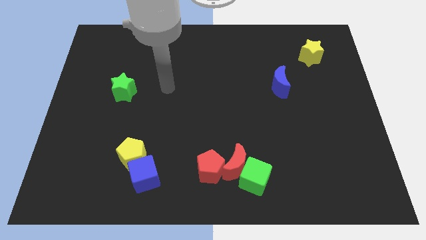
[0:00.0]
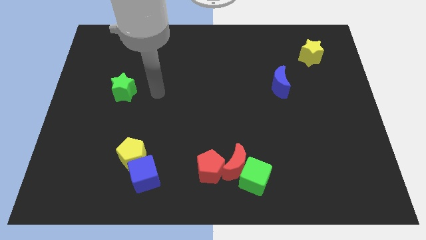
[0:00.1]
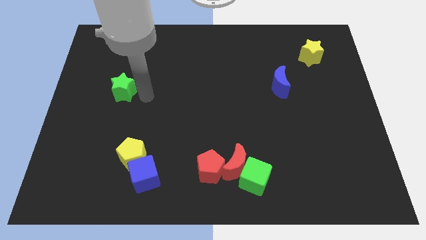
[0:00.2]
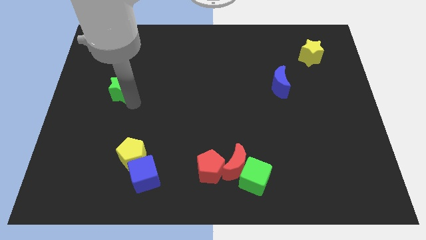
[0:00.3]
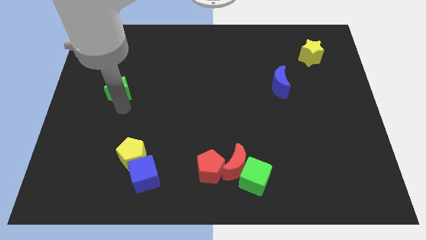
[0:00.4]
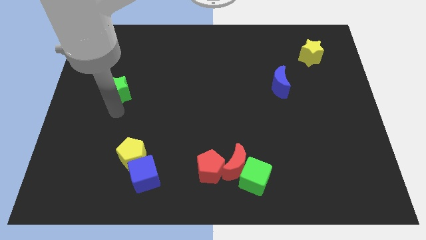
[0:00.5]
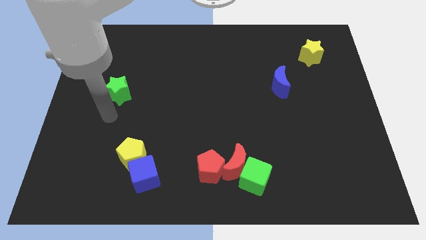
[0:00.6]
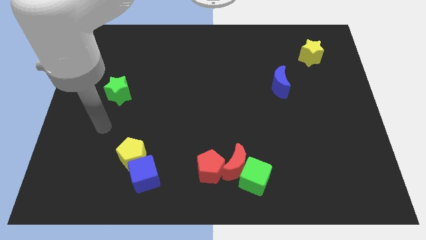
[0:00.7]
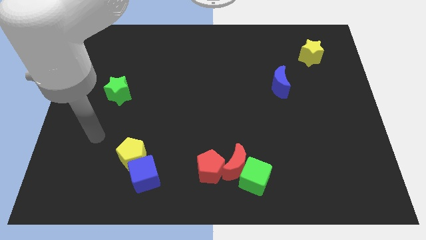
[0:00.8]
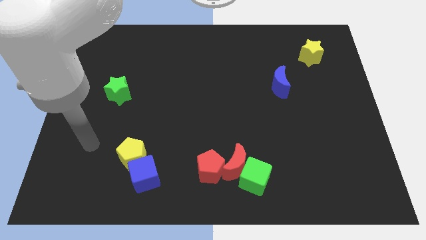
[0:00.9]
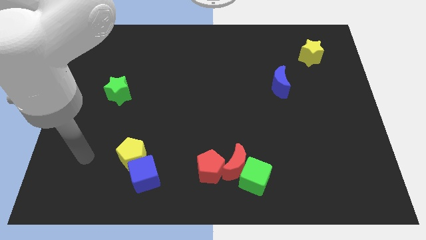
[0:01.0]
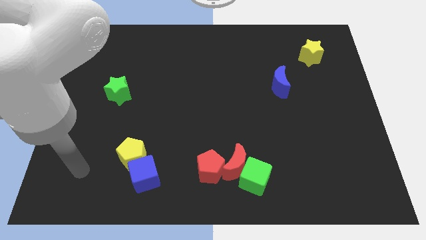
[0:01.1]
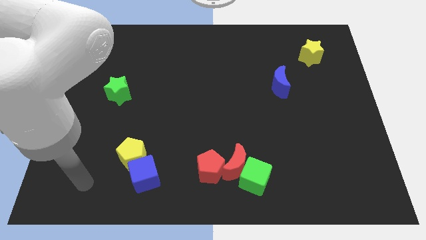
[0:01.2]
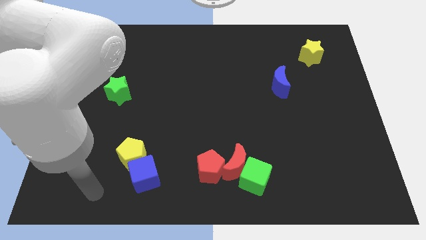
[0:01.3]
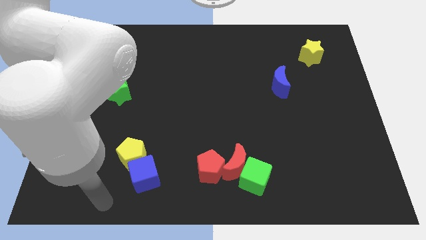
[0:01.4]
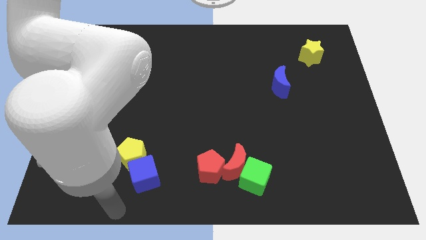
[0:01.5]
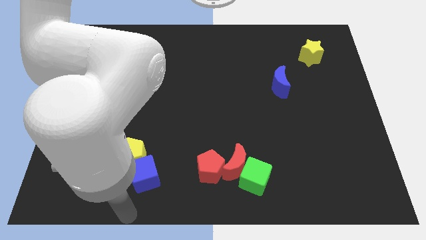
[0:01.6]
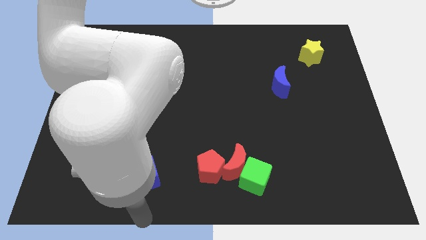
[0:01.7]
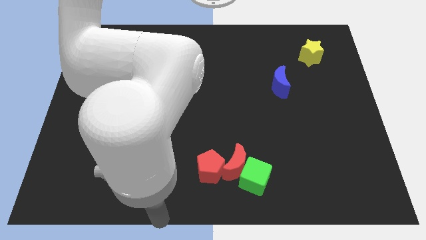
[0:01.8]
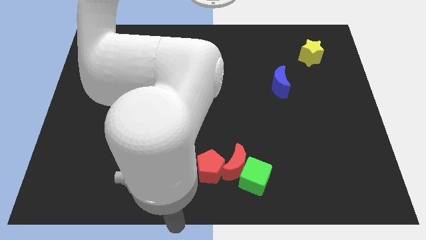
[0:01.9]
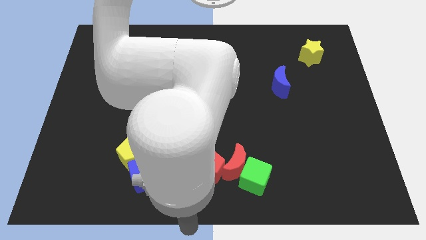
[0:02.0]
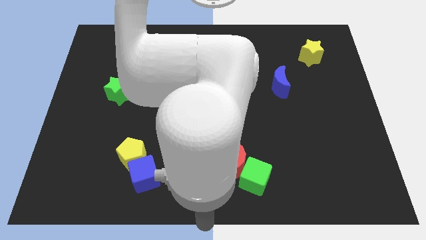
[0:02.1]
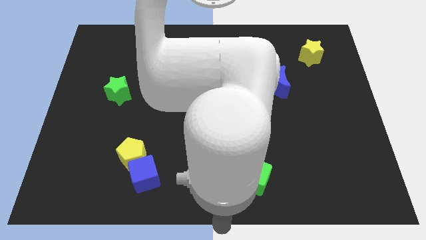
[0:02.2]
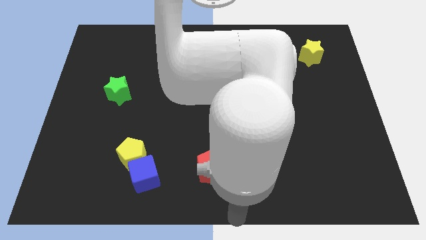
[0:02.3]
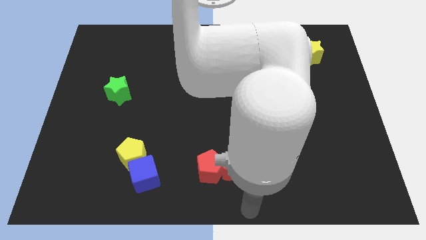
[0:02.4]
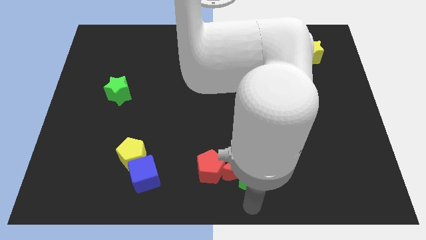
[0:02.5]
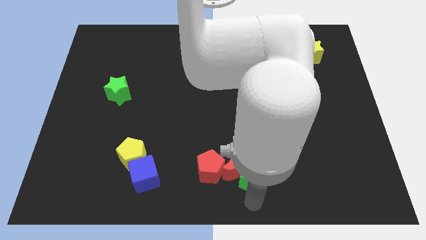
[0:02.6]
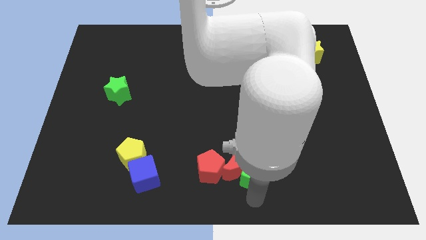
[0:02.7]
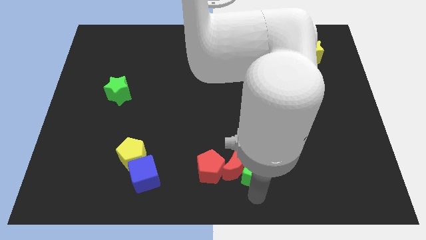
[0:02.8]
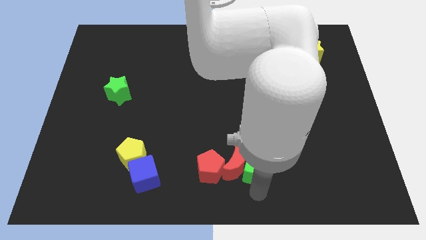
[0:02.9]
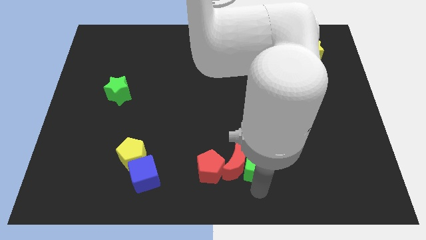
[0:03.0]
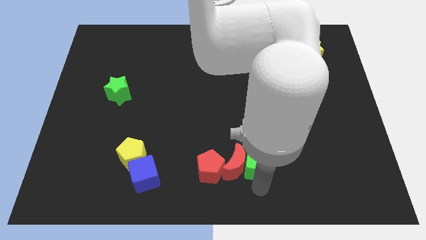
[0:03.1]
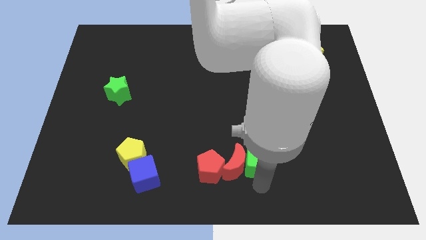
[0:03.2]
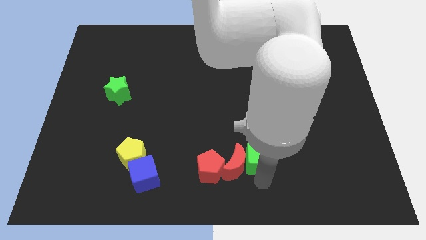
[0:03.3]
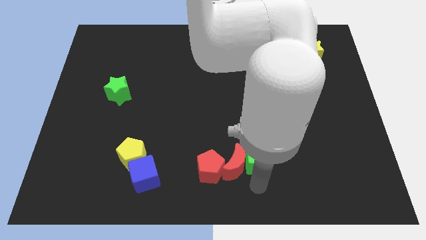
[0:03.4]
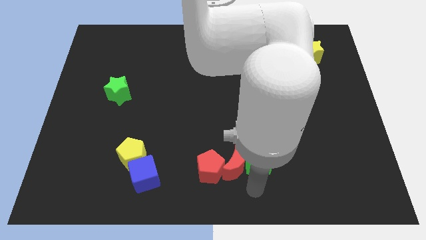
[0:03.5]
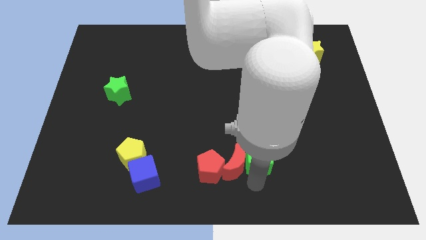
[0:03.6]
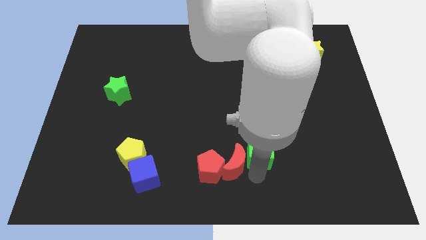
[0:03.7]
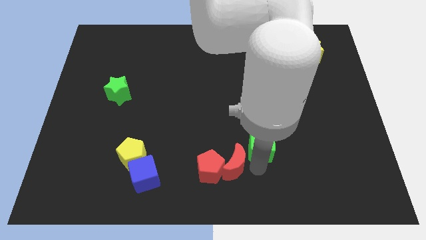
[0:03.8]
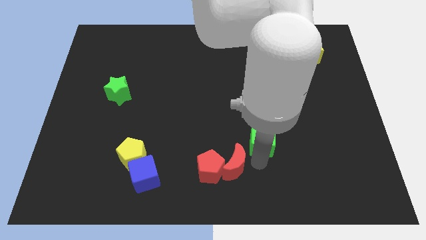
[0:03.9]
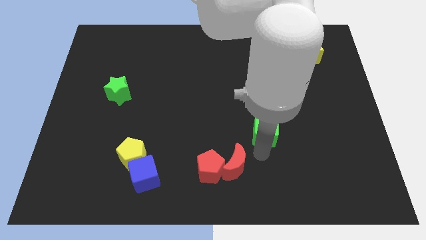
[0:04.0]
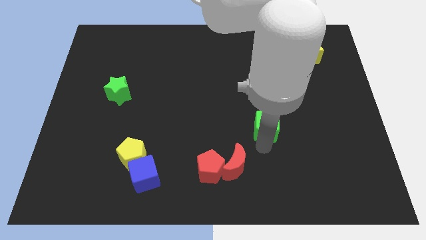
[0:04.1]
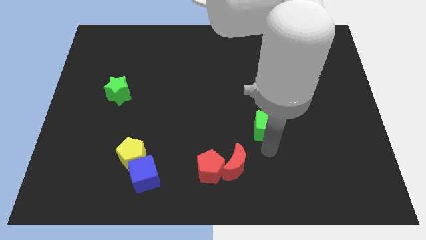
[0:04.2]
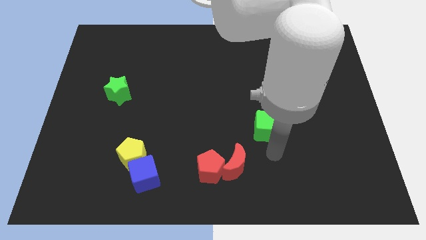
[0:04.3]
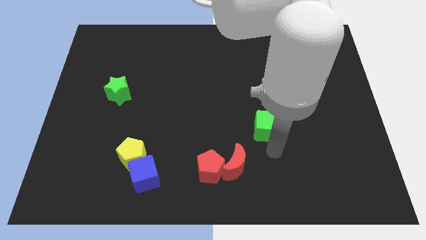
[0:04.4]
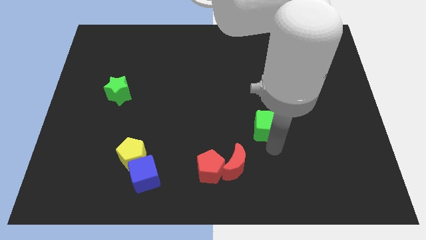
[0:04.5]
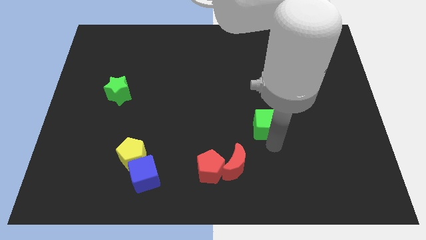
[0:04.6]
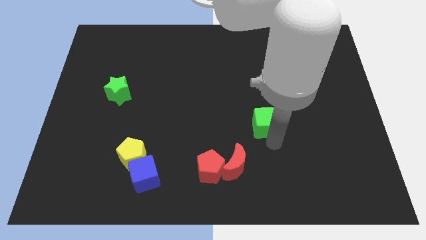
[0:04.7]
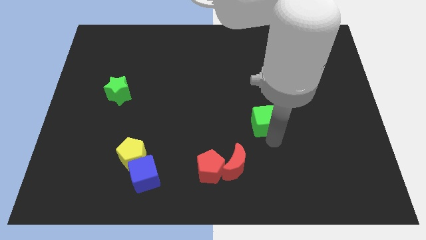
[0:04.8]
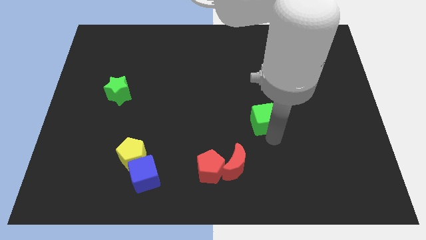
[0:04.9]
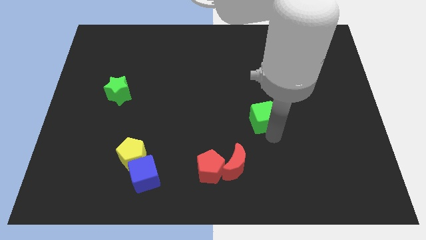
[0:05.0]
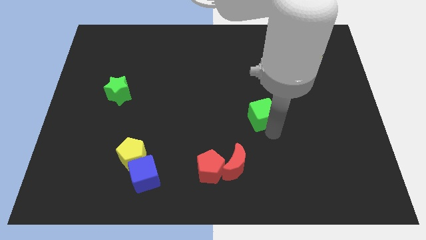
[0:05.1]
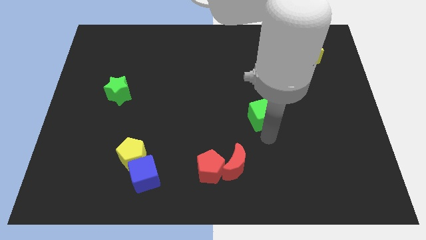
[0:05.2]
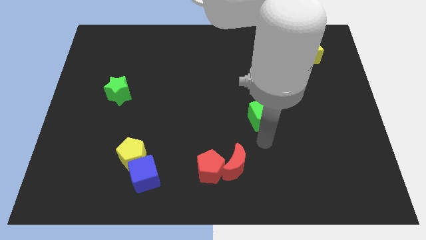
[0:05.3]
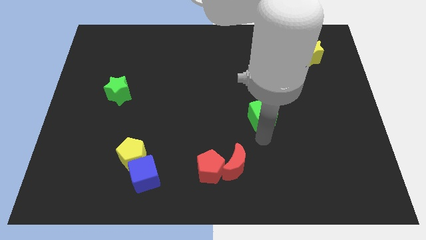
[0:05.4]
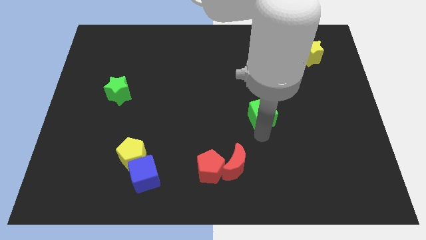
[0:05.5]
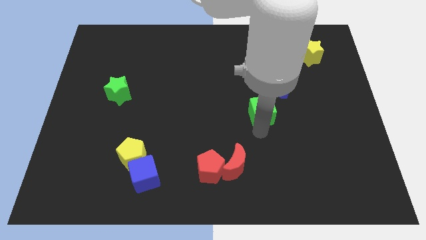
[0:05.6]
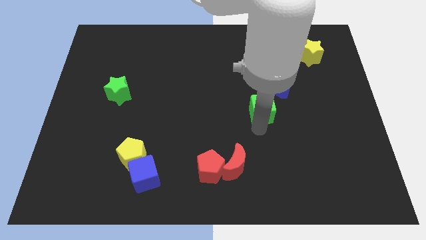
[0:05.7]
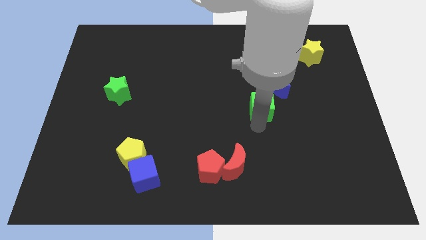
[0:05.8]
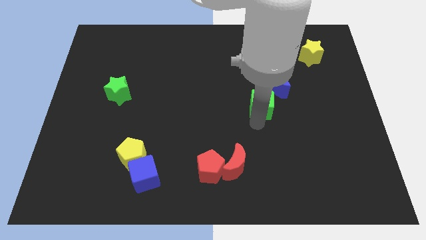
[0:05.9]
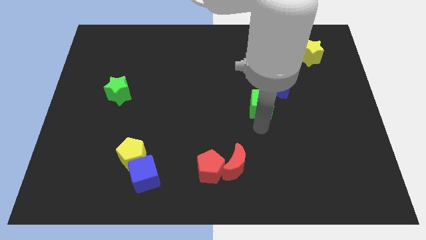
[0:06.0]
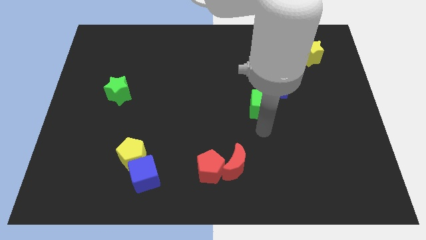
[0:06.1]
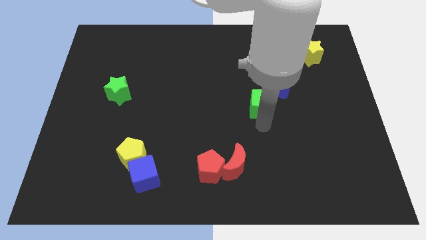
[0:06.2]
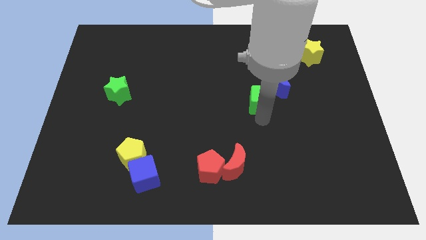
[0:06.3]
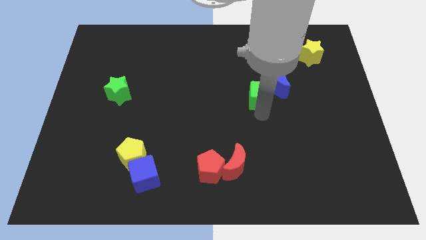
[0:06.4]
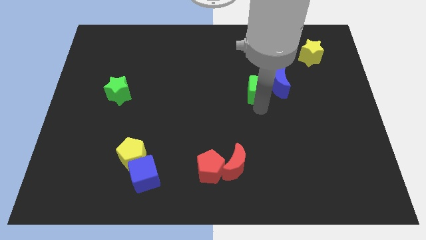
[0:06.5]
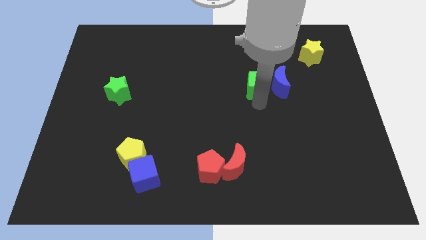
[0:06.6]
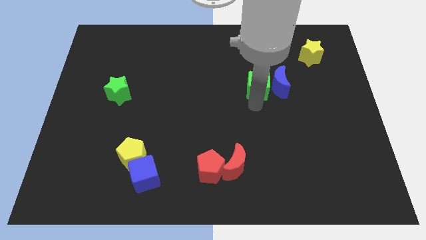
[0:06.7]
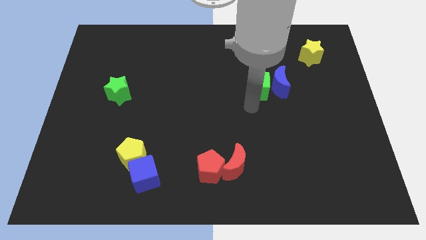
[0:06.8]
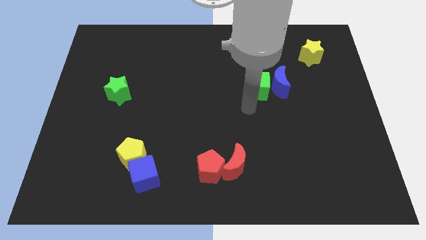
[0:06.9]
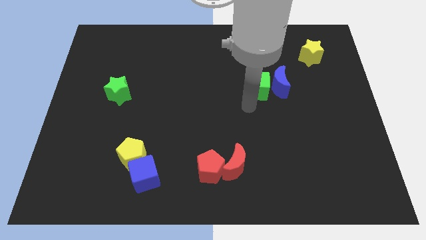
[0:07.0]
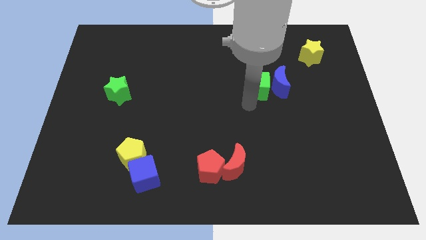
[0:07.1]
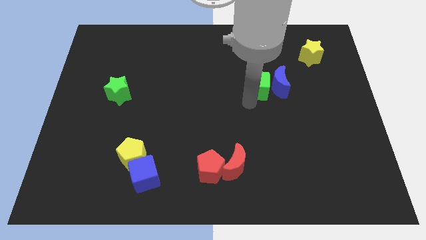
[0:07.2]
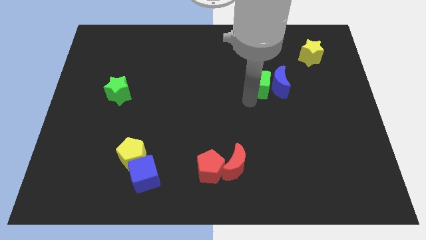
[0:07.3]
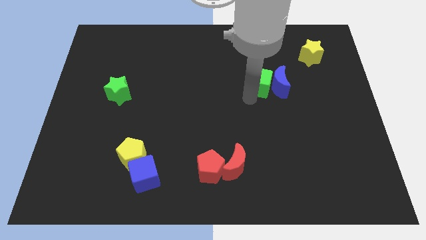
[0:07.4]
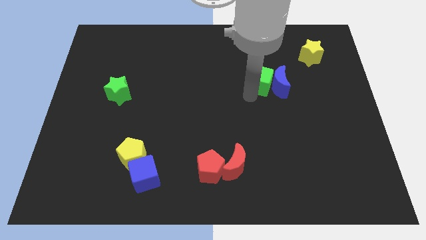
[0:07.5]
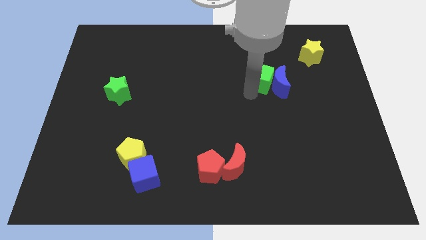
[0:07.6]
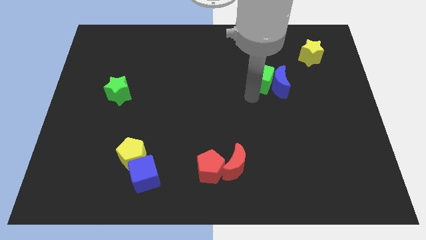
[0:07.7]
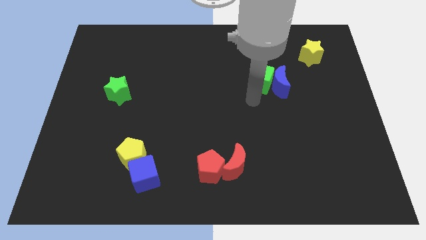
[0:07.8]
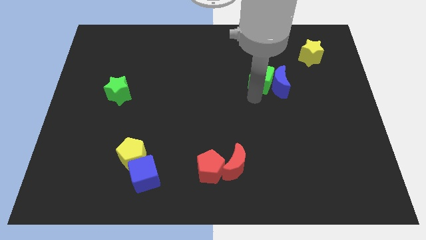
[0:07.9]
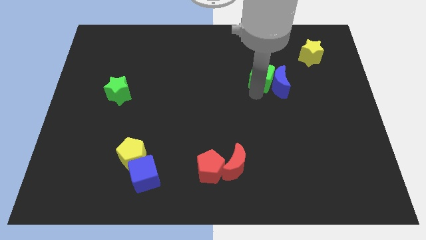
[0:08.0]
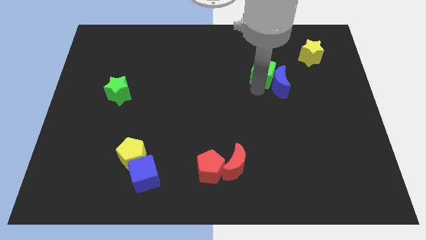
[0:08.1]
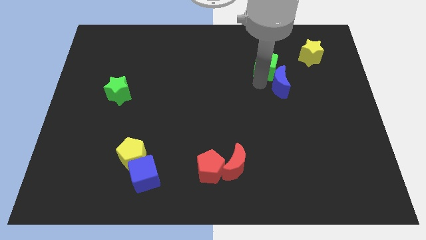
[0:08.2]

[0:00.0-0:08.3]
put the green cube just left of the yellow star
